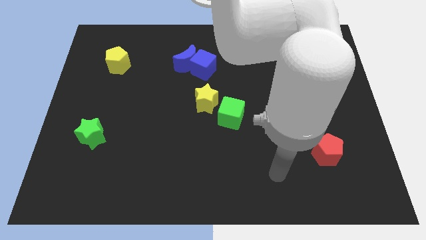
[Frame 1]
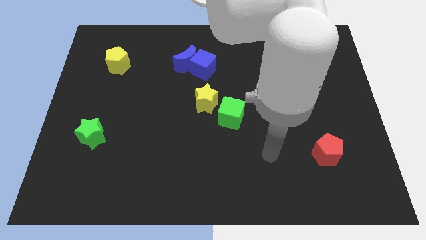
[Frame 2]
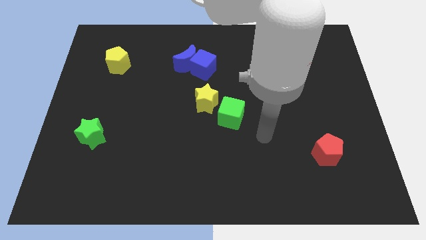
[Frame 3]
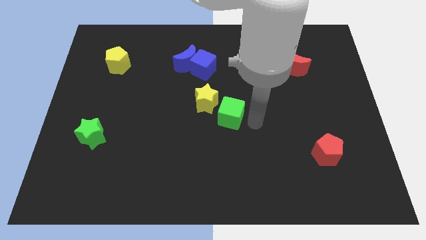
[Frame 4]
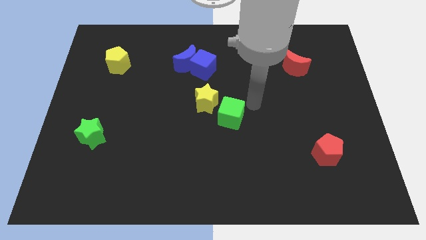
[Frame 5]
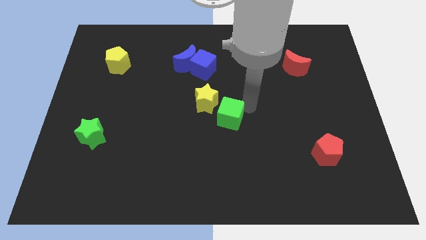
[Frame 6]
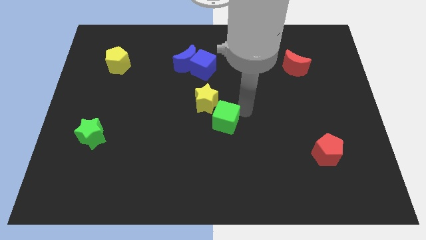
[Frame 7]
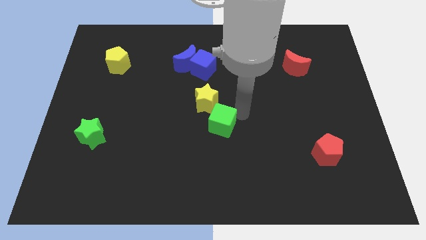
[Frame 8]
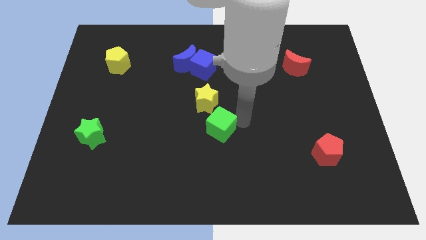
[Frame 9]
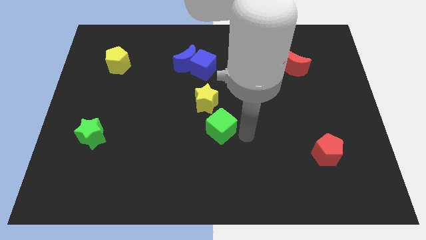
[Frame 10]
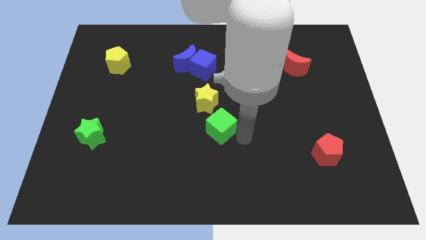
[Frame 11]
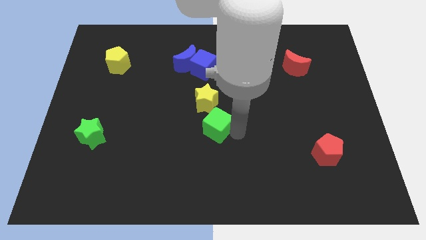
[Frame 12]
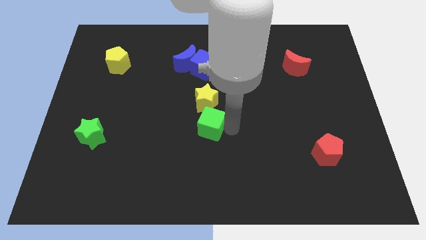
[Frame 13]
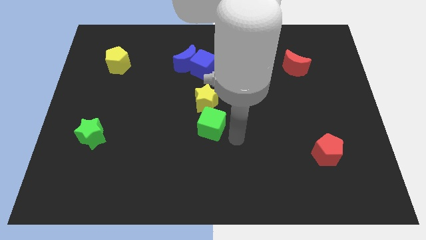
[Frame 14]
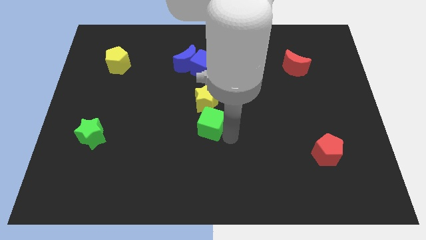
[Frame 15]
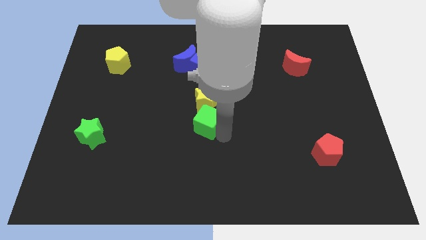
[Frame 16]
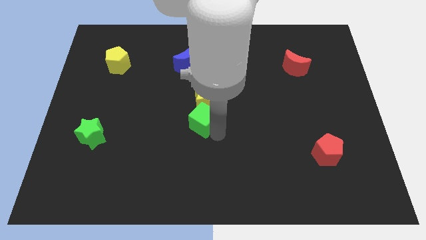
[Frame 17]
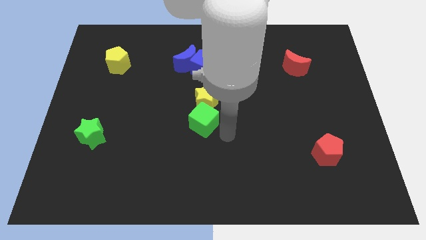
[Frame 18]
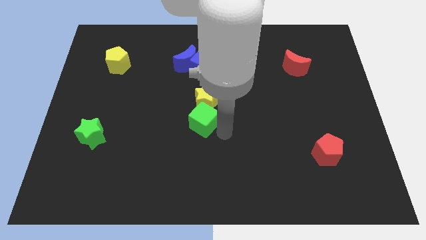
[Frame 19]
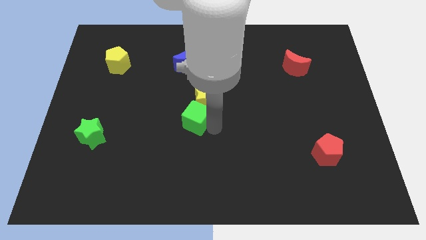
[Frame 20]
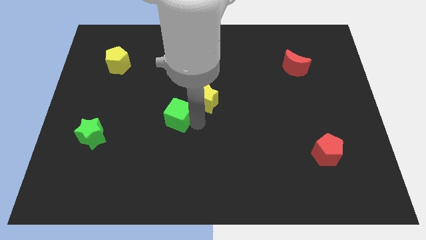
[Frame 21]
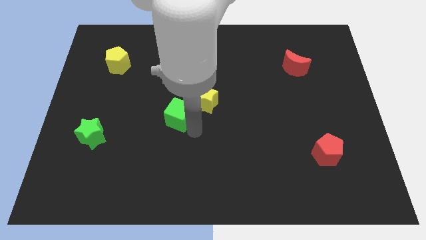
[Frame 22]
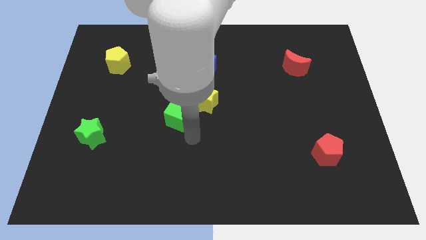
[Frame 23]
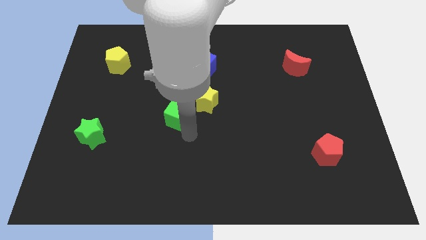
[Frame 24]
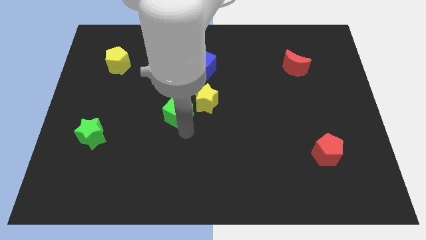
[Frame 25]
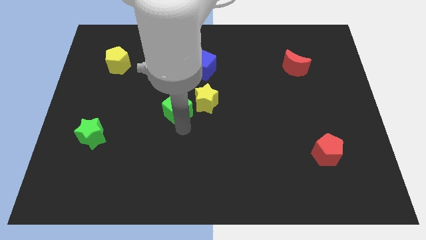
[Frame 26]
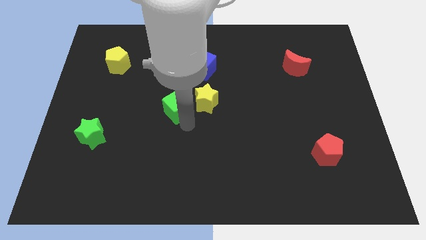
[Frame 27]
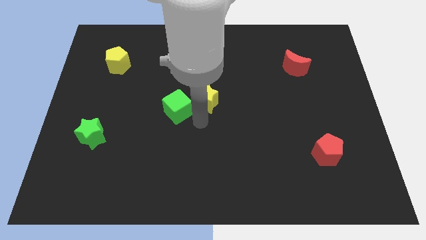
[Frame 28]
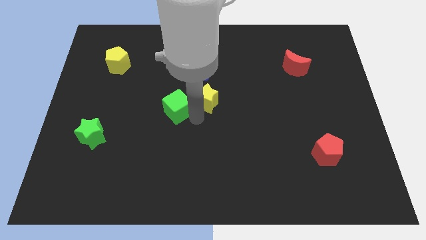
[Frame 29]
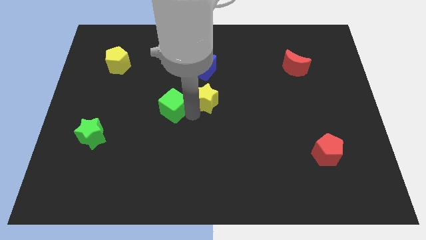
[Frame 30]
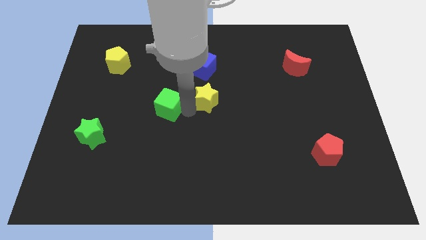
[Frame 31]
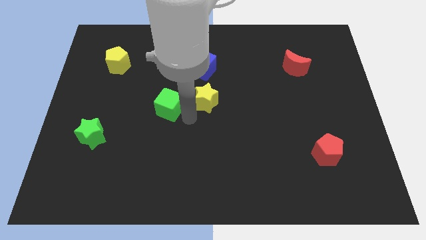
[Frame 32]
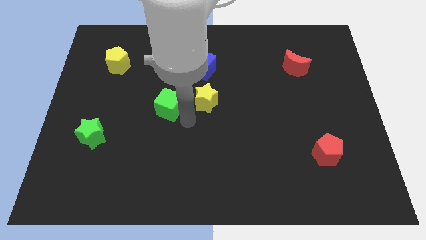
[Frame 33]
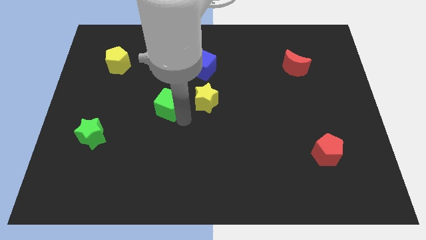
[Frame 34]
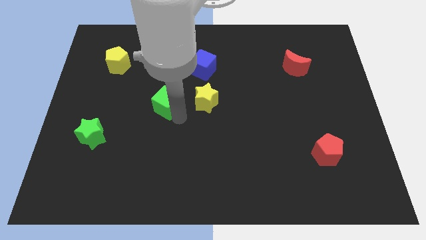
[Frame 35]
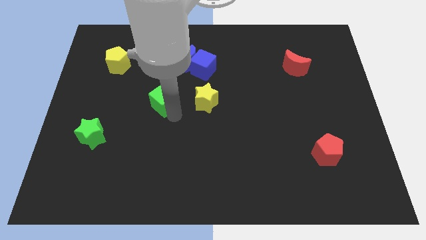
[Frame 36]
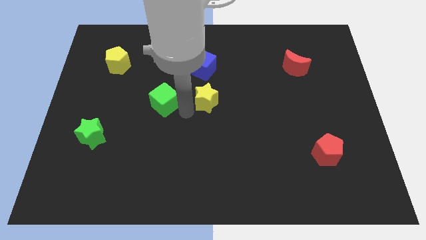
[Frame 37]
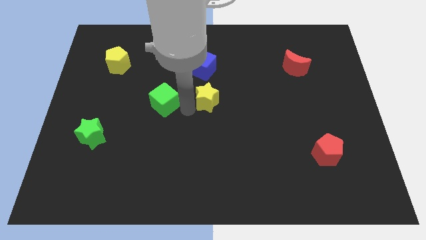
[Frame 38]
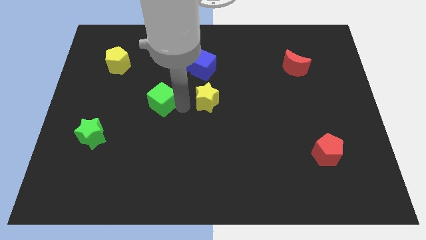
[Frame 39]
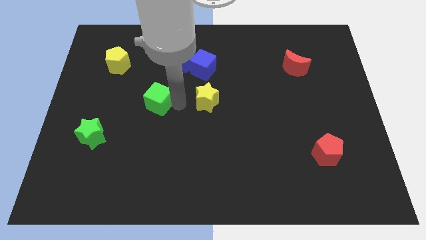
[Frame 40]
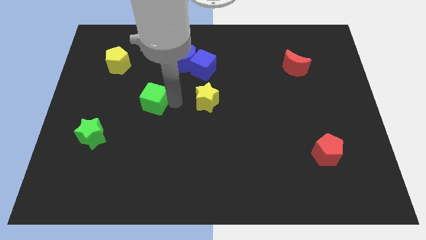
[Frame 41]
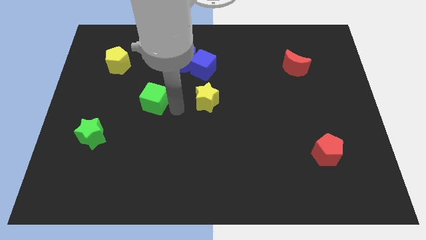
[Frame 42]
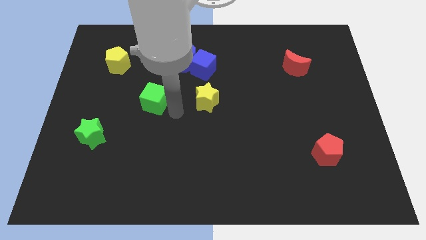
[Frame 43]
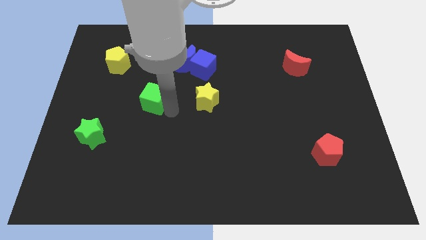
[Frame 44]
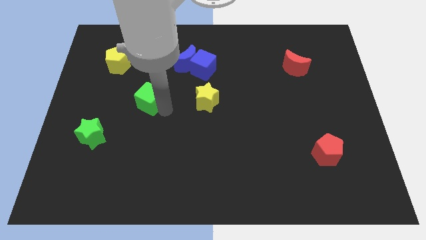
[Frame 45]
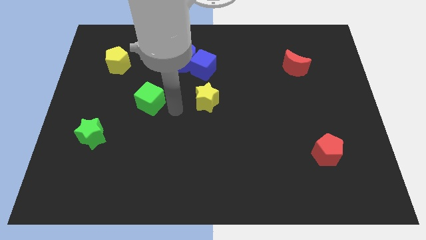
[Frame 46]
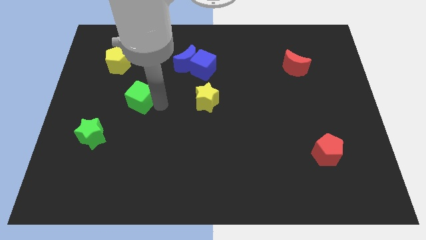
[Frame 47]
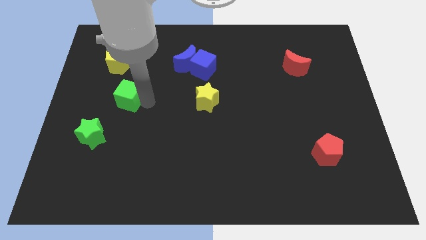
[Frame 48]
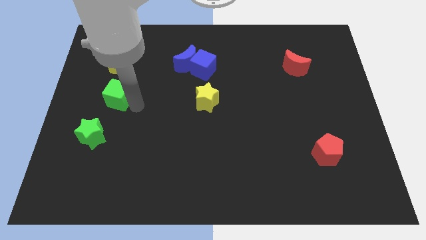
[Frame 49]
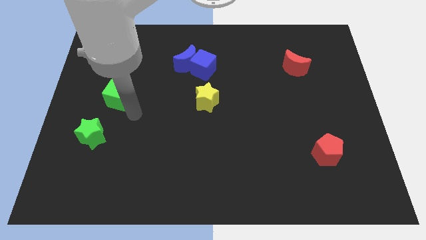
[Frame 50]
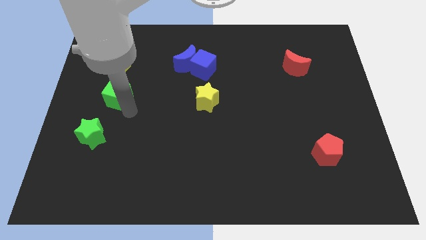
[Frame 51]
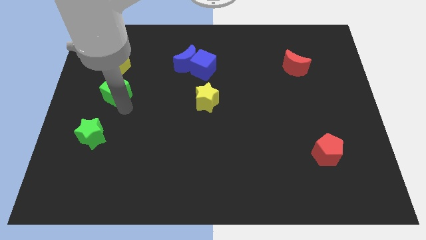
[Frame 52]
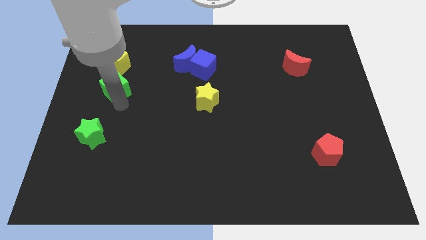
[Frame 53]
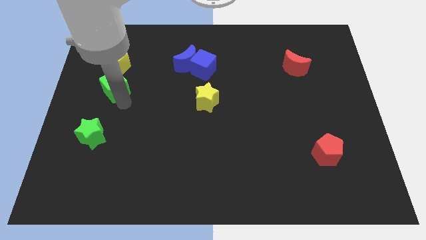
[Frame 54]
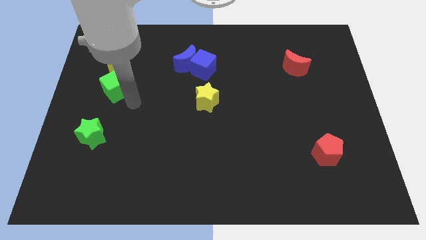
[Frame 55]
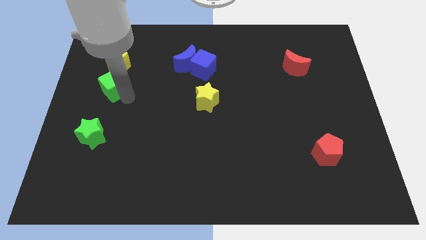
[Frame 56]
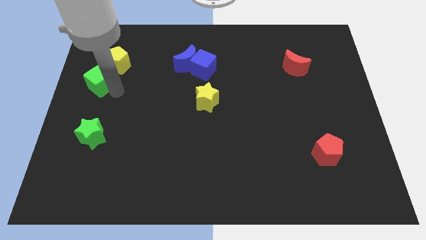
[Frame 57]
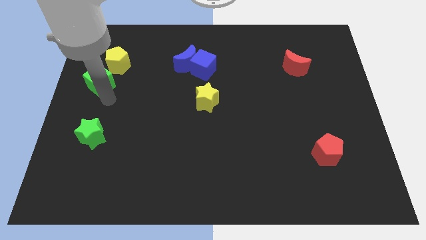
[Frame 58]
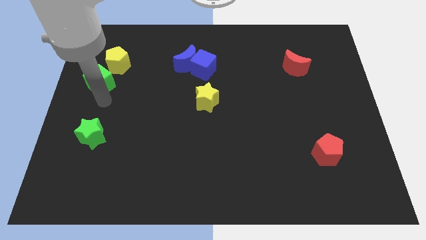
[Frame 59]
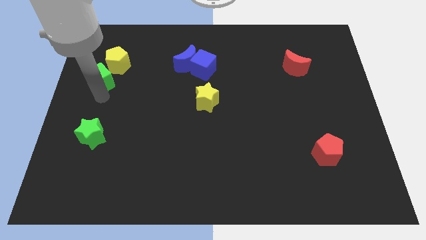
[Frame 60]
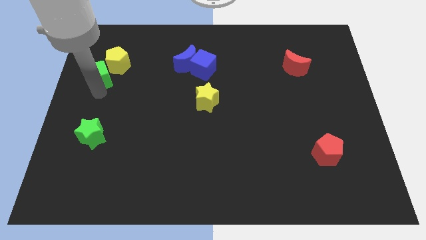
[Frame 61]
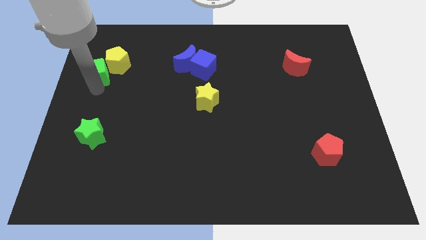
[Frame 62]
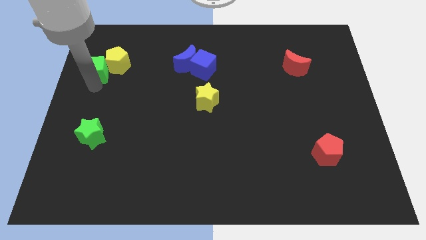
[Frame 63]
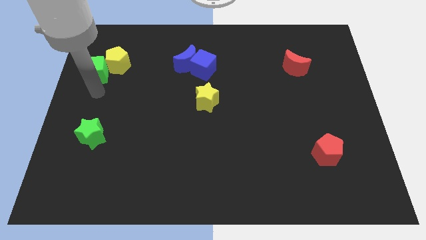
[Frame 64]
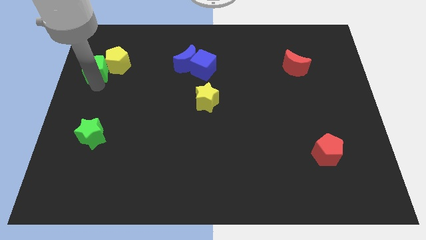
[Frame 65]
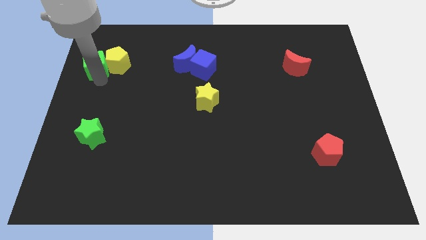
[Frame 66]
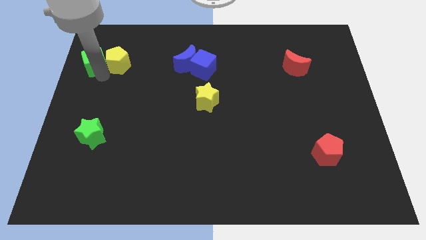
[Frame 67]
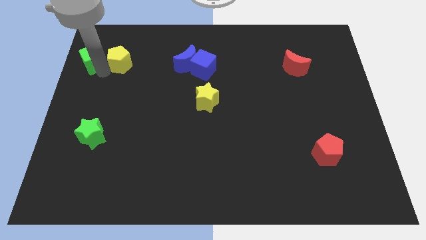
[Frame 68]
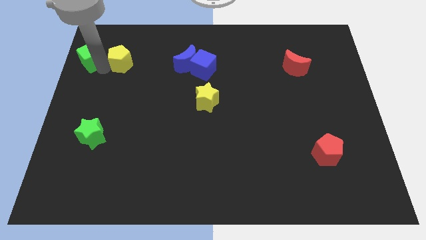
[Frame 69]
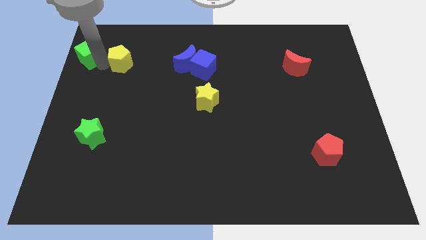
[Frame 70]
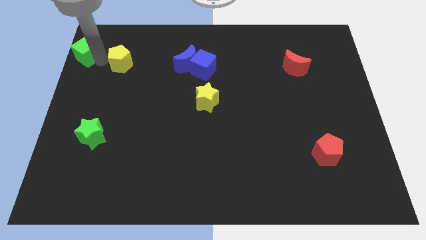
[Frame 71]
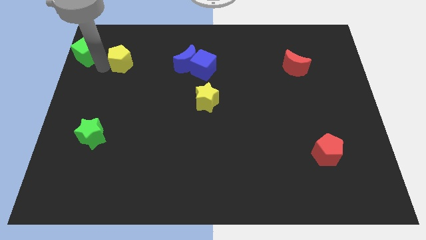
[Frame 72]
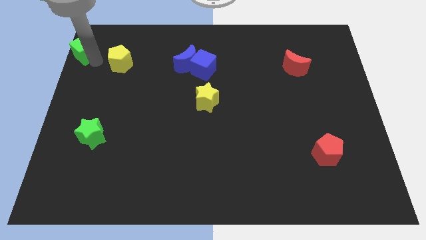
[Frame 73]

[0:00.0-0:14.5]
put the green cube to the top left corner

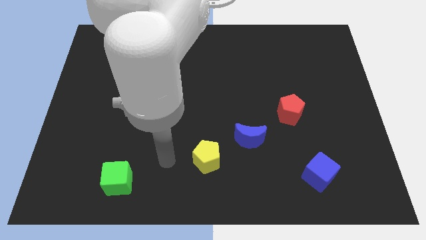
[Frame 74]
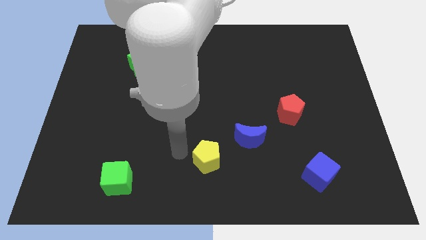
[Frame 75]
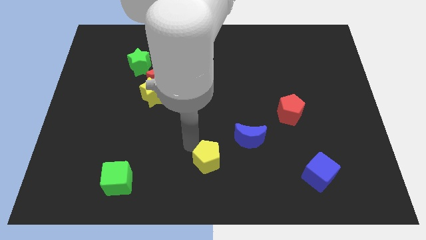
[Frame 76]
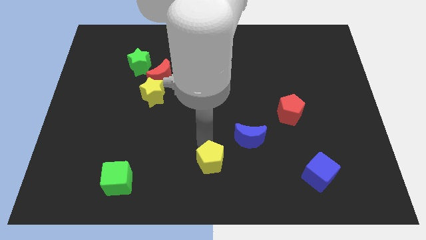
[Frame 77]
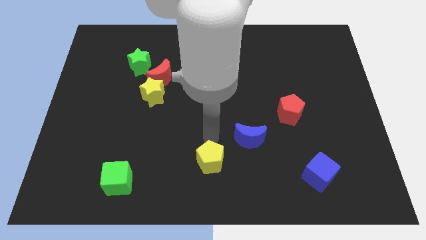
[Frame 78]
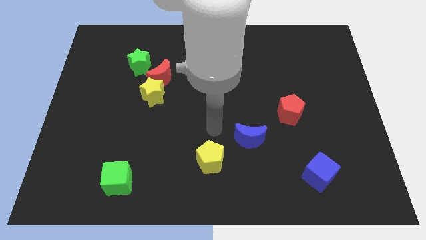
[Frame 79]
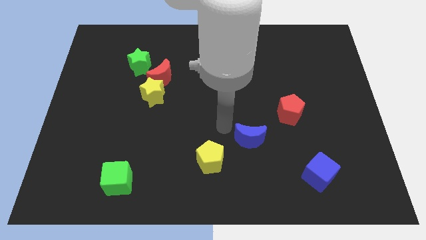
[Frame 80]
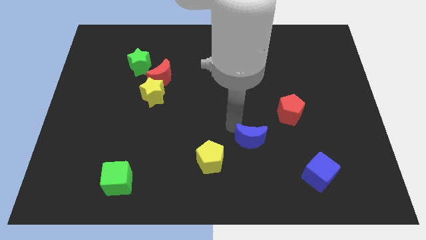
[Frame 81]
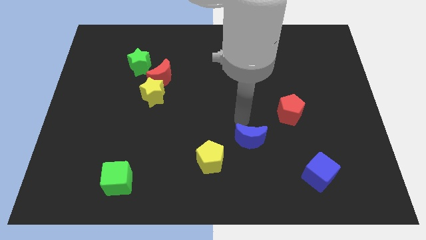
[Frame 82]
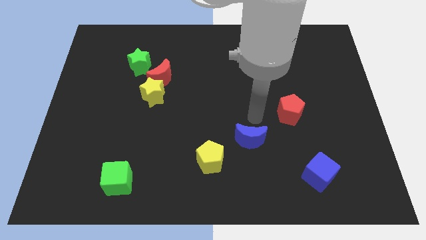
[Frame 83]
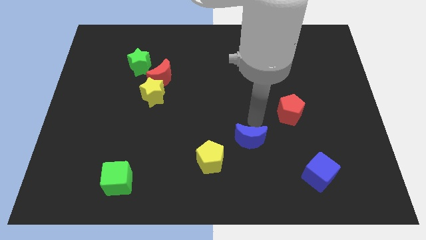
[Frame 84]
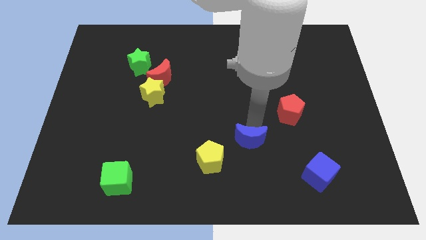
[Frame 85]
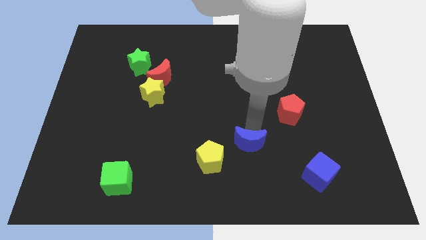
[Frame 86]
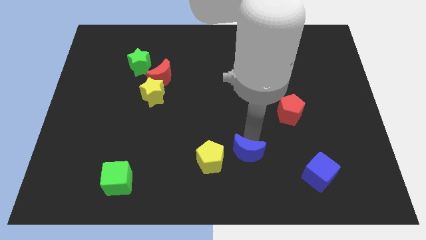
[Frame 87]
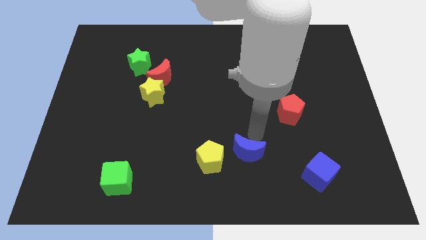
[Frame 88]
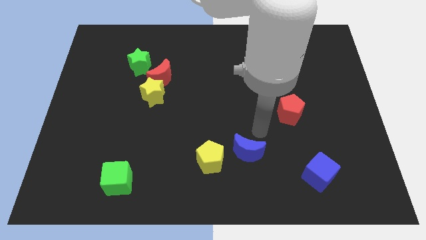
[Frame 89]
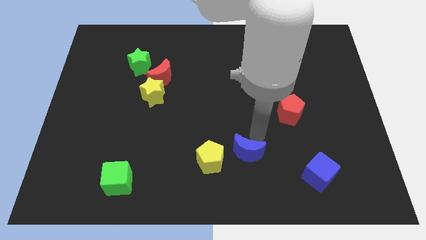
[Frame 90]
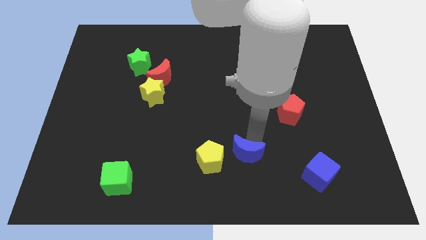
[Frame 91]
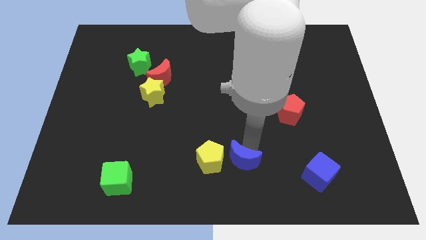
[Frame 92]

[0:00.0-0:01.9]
push the blue moon to the bottom
